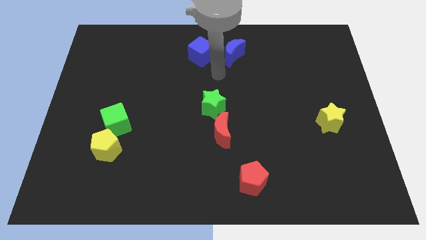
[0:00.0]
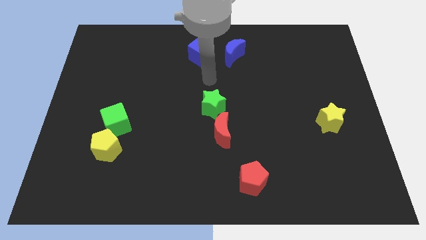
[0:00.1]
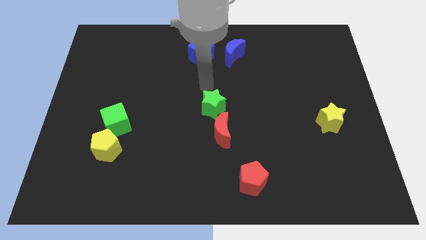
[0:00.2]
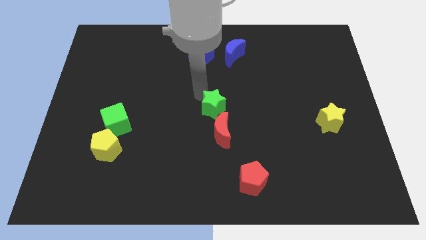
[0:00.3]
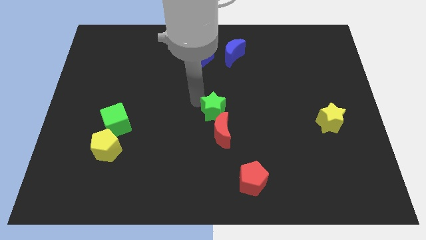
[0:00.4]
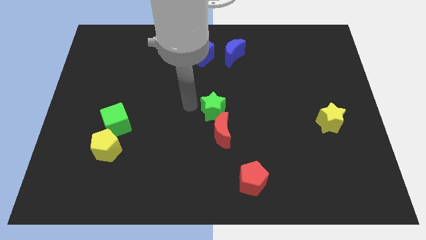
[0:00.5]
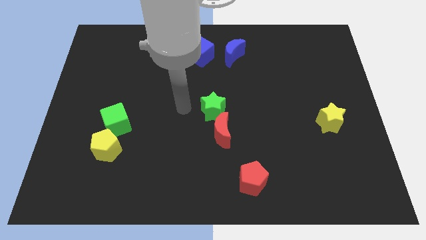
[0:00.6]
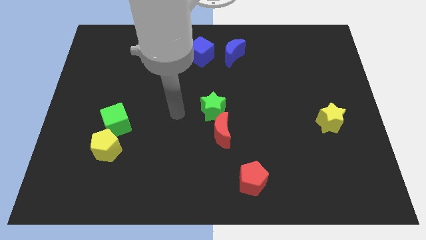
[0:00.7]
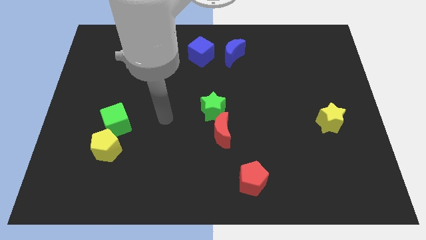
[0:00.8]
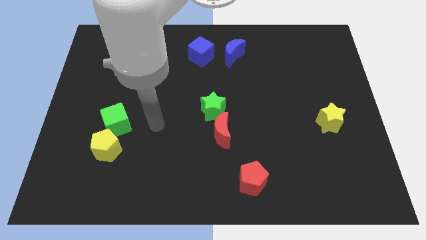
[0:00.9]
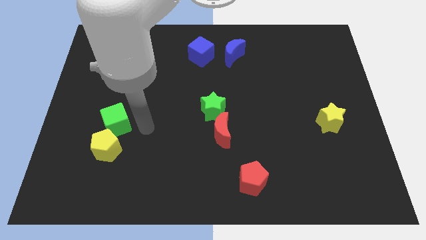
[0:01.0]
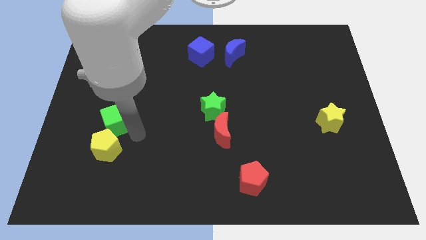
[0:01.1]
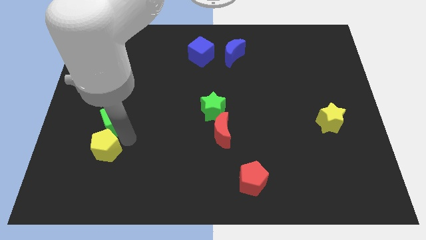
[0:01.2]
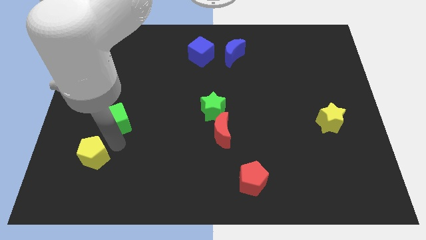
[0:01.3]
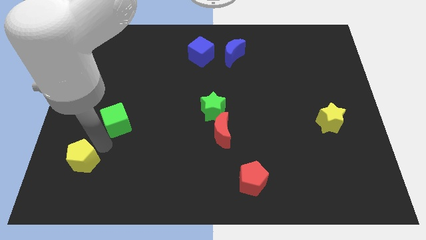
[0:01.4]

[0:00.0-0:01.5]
pull the green cube apart from the yellow pentagon

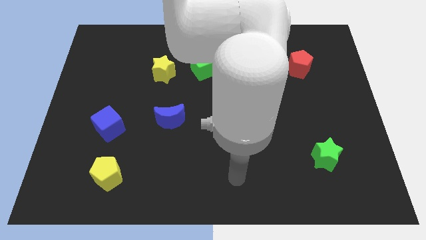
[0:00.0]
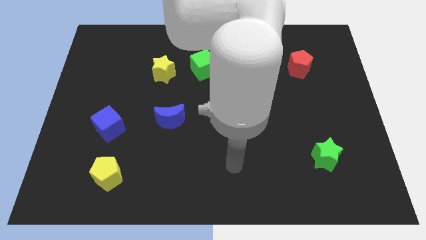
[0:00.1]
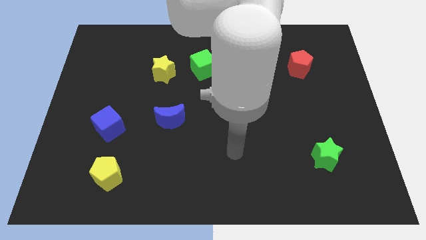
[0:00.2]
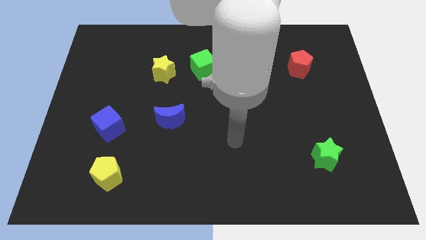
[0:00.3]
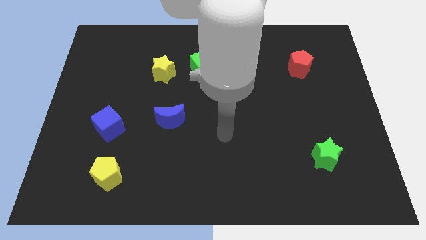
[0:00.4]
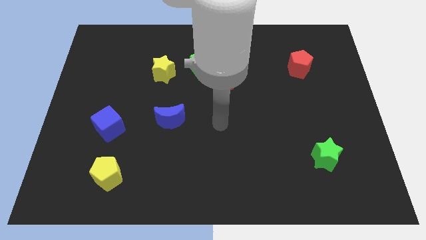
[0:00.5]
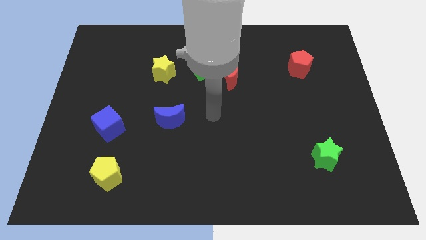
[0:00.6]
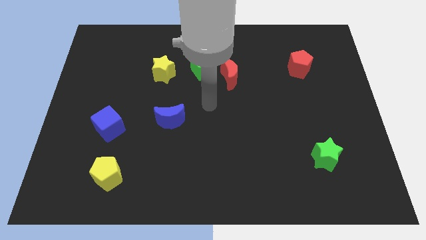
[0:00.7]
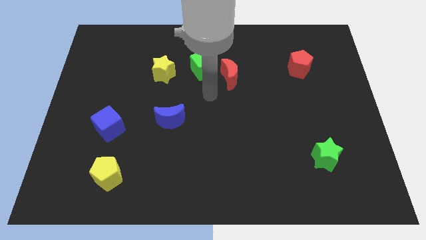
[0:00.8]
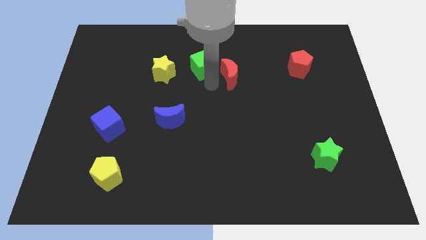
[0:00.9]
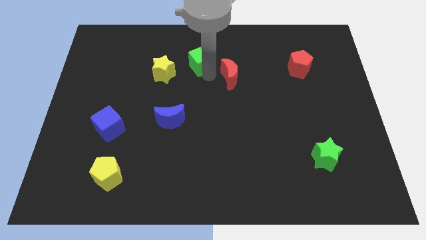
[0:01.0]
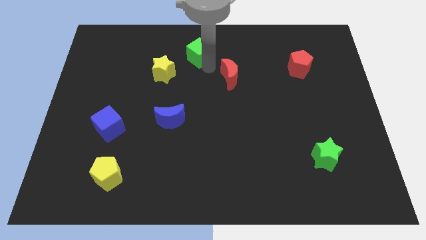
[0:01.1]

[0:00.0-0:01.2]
pull the red moon apart from the green cube

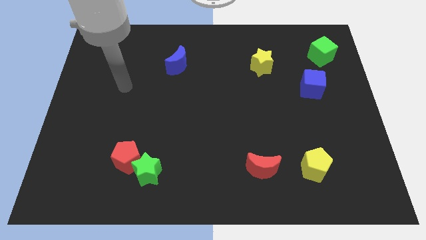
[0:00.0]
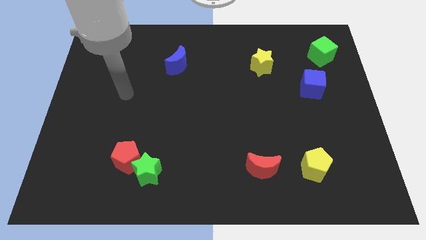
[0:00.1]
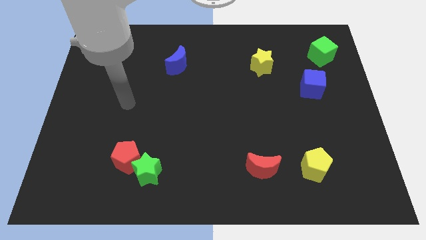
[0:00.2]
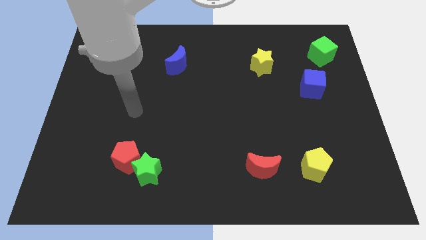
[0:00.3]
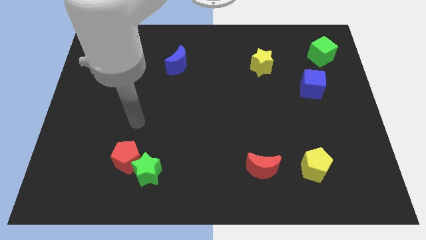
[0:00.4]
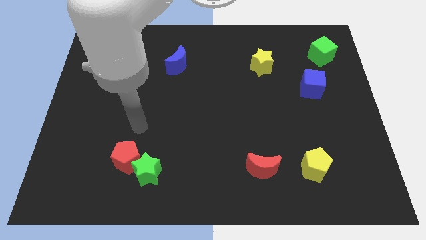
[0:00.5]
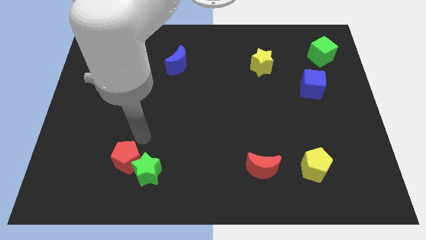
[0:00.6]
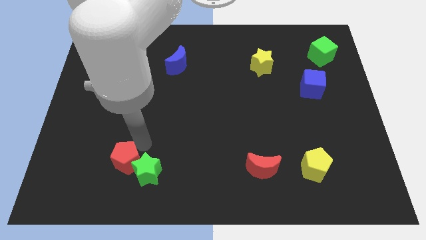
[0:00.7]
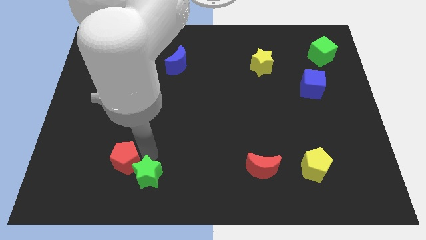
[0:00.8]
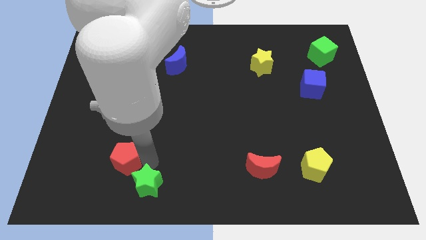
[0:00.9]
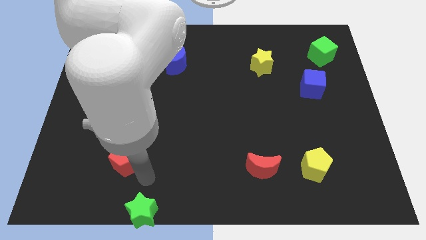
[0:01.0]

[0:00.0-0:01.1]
separate the red pentagon from the green star

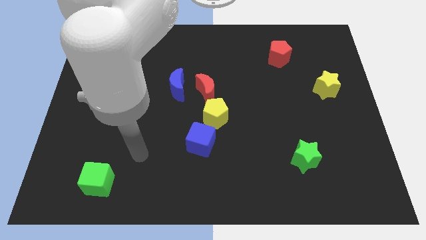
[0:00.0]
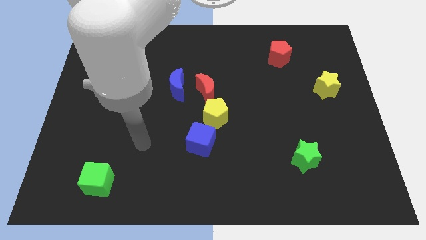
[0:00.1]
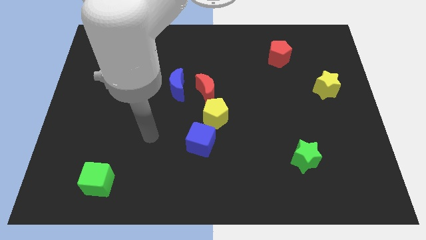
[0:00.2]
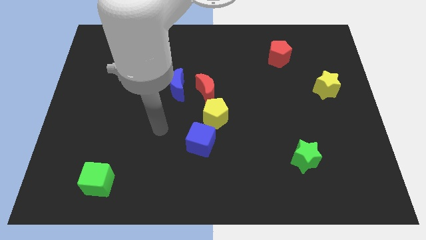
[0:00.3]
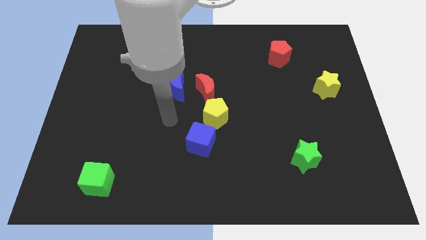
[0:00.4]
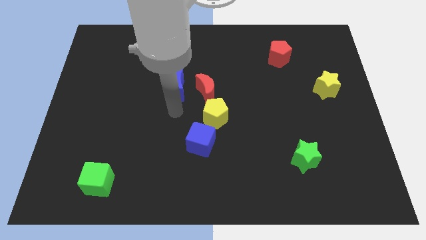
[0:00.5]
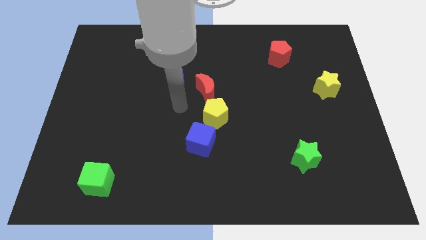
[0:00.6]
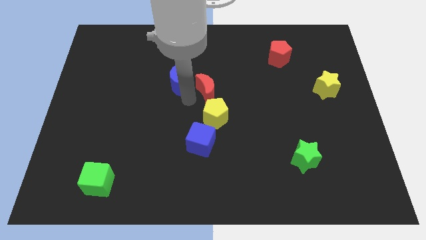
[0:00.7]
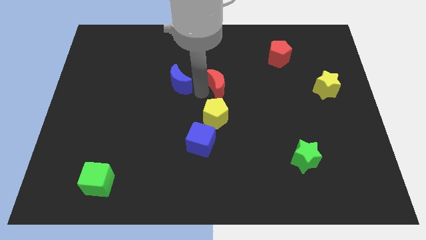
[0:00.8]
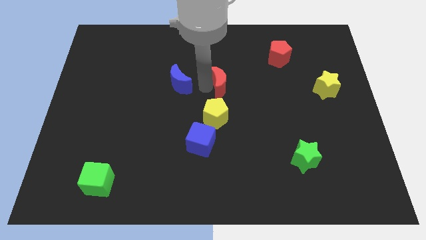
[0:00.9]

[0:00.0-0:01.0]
separate the blue moon from the red moon

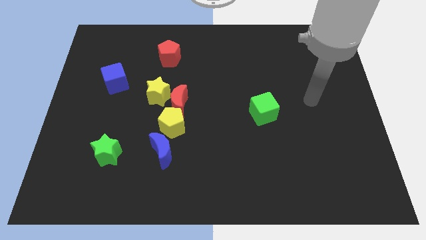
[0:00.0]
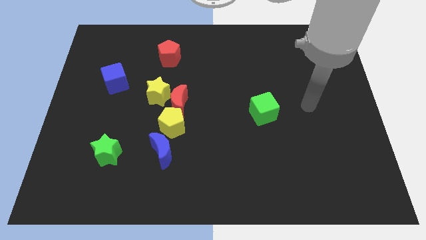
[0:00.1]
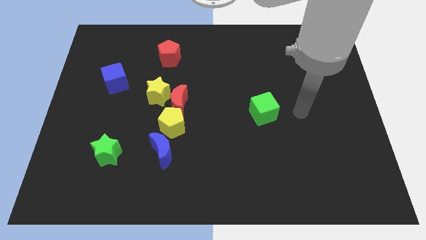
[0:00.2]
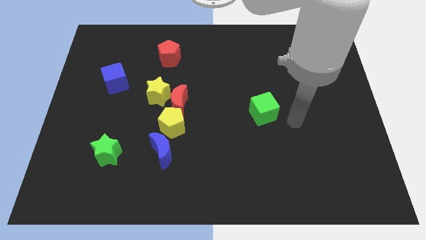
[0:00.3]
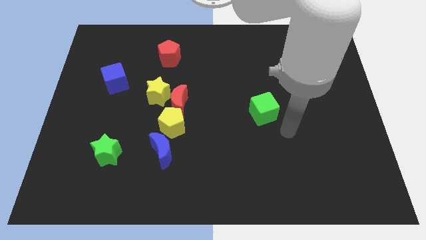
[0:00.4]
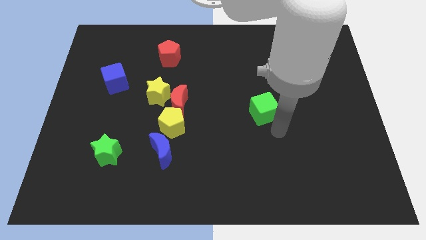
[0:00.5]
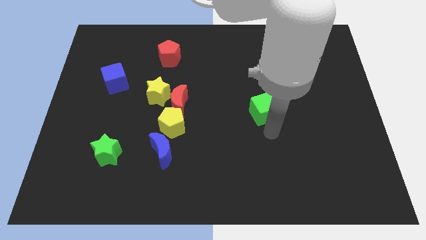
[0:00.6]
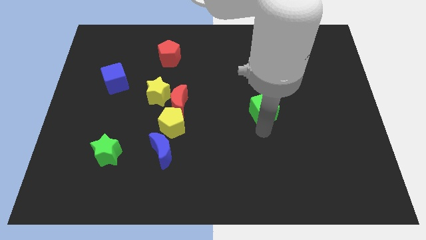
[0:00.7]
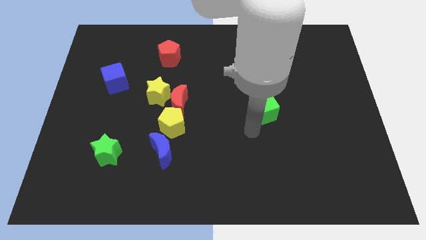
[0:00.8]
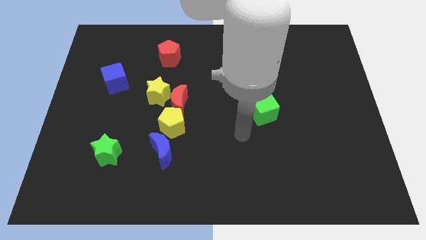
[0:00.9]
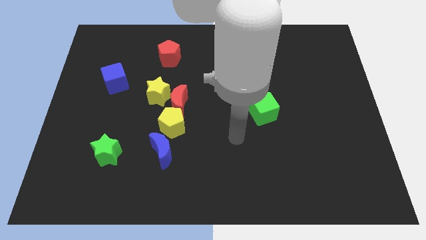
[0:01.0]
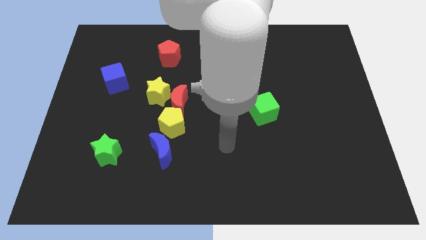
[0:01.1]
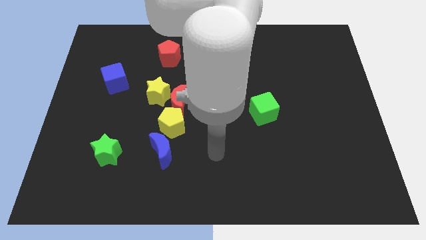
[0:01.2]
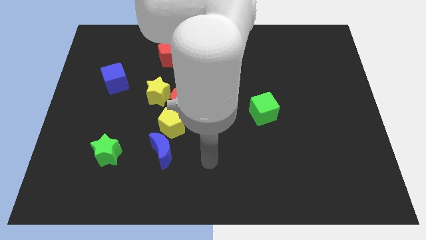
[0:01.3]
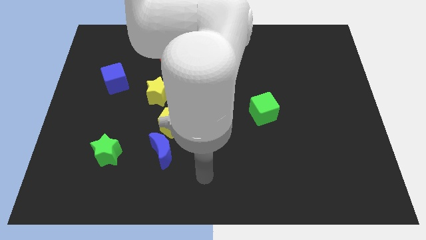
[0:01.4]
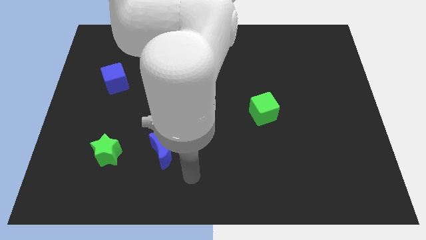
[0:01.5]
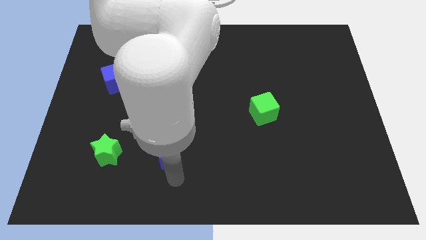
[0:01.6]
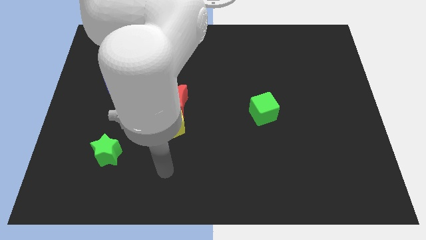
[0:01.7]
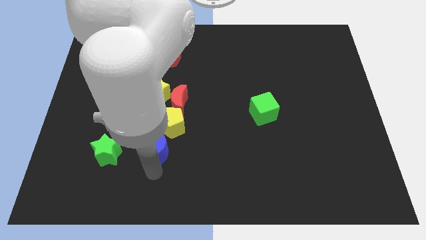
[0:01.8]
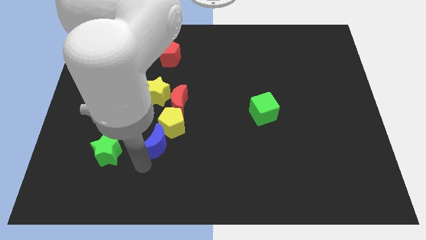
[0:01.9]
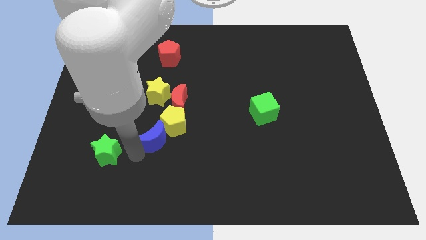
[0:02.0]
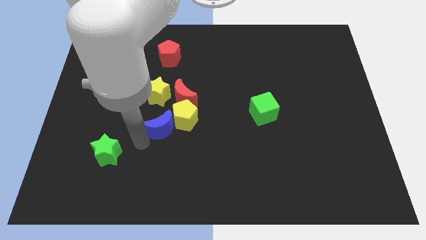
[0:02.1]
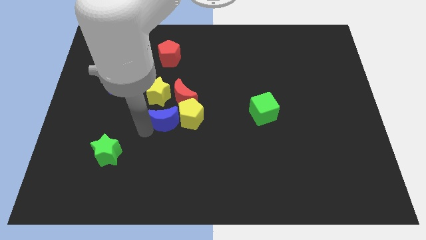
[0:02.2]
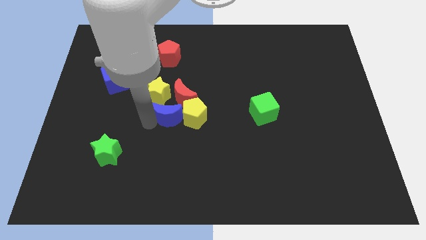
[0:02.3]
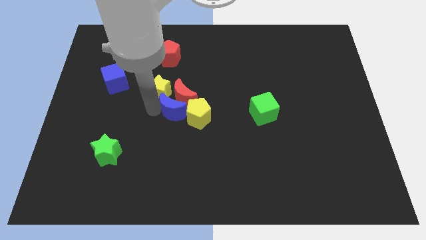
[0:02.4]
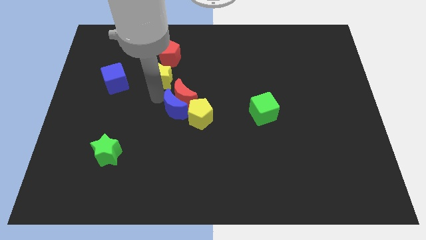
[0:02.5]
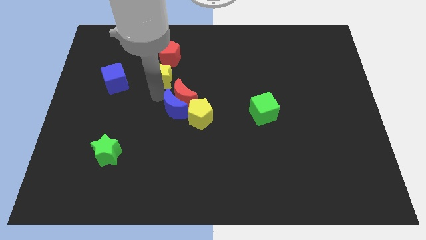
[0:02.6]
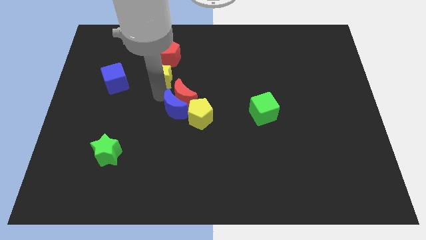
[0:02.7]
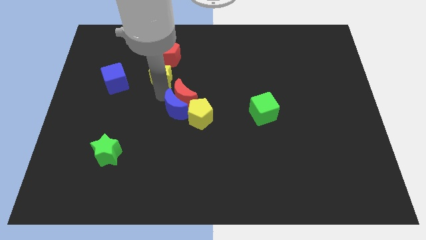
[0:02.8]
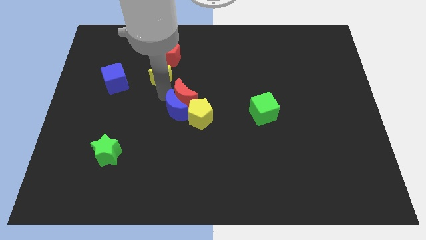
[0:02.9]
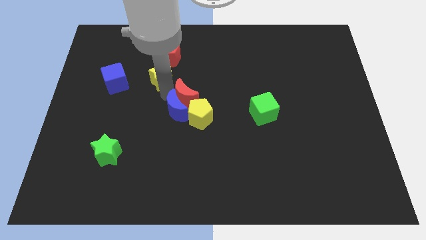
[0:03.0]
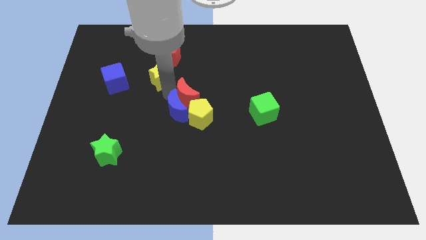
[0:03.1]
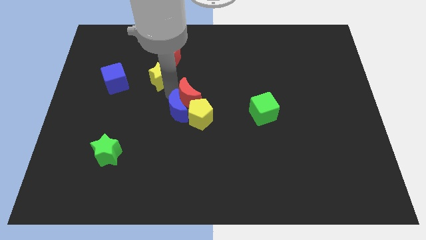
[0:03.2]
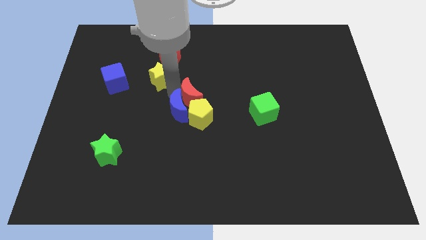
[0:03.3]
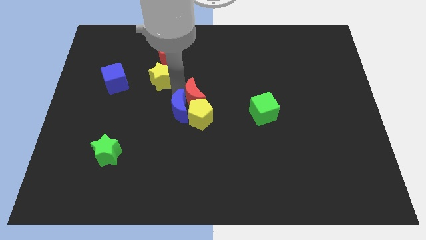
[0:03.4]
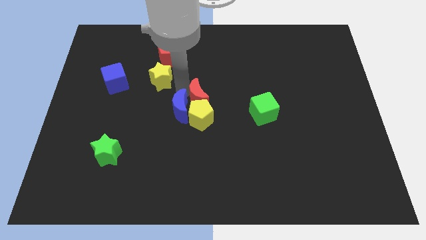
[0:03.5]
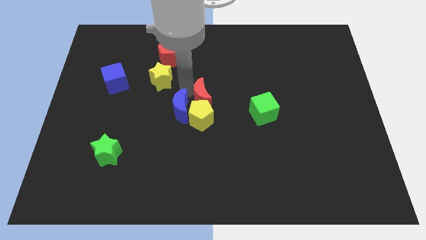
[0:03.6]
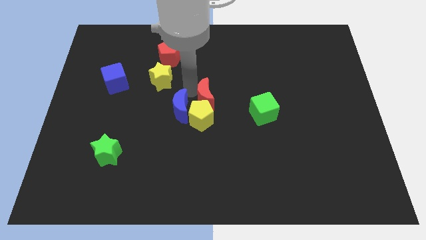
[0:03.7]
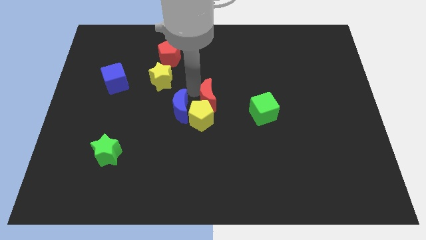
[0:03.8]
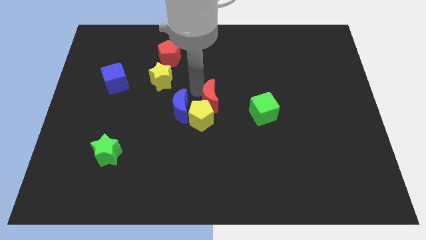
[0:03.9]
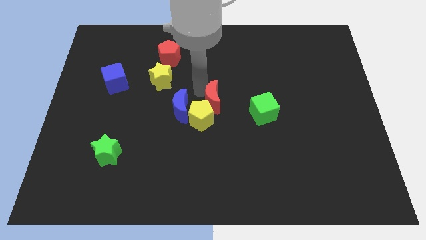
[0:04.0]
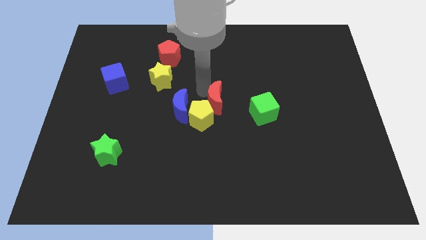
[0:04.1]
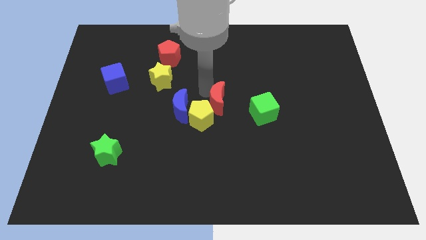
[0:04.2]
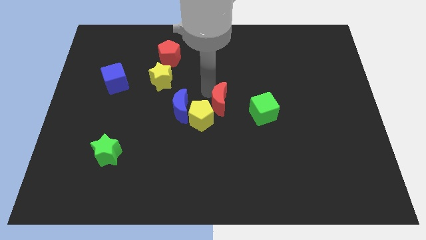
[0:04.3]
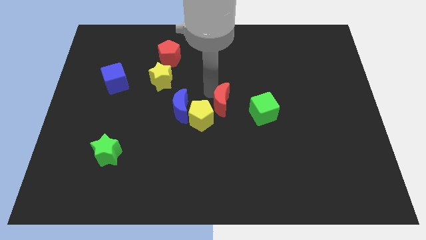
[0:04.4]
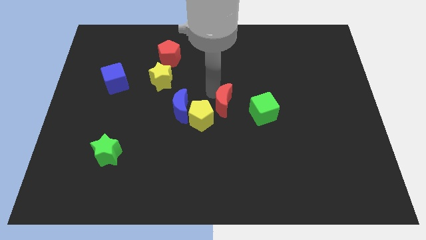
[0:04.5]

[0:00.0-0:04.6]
pull the red moon apart from the yellow pentagon and yellow star
